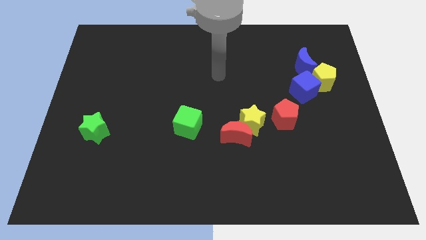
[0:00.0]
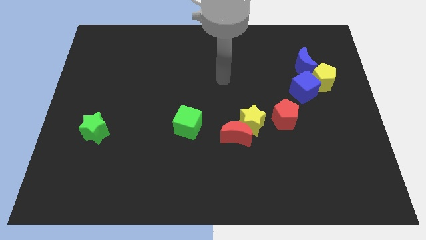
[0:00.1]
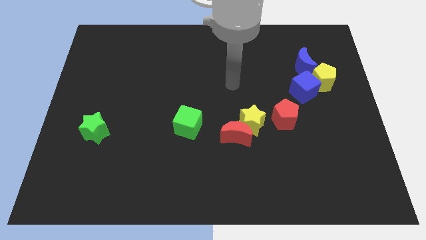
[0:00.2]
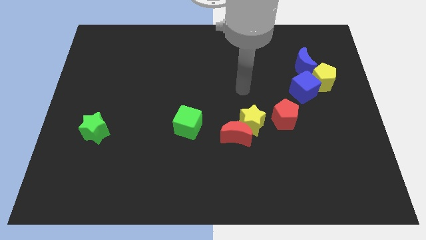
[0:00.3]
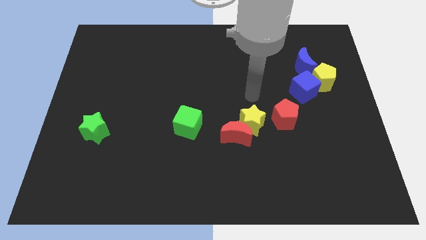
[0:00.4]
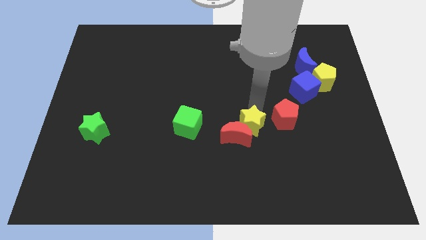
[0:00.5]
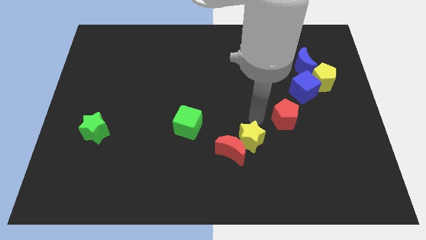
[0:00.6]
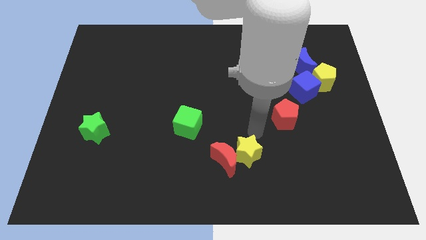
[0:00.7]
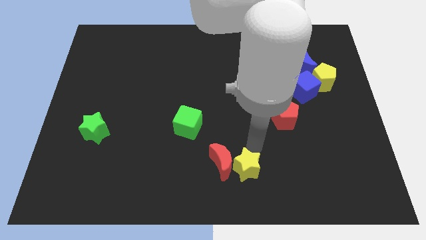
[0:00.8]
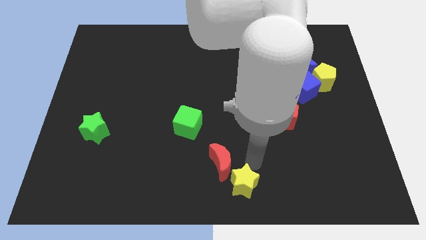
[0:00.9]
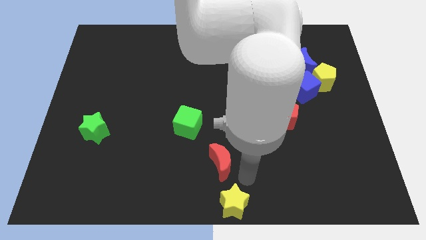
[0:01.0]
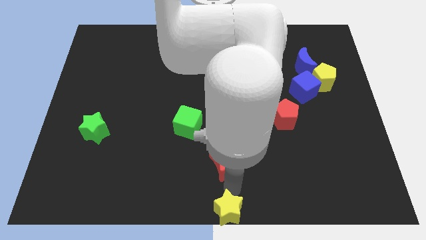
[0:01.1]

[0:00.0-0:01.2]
move the red moon away from the yellow star

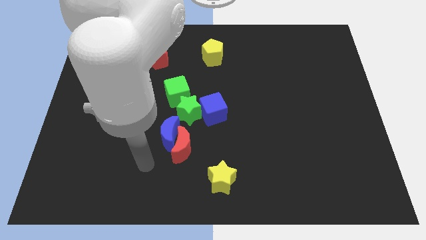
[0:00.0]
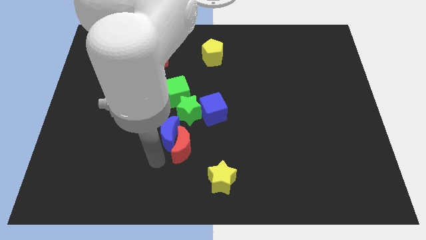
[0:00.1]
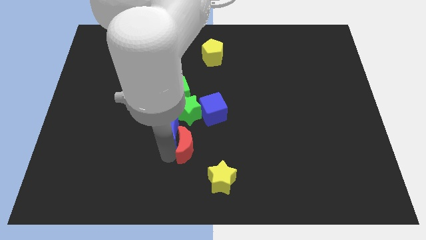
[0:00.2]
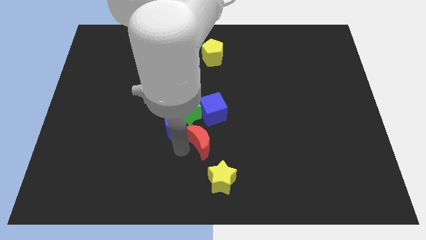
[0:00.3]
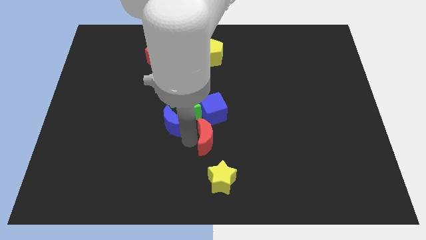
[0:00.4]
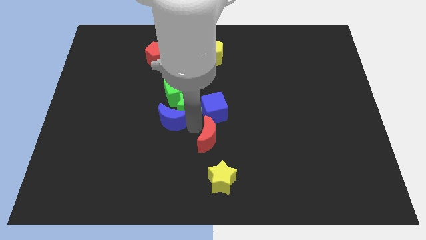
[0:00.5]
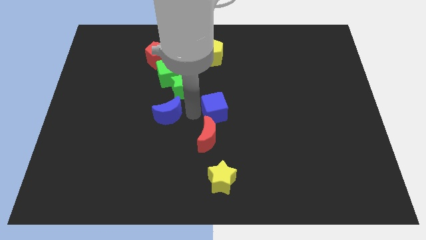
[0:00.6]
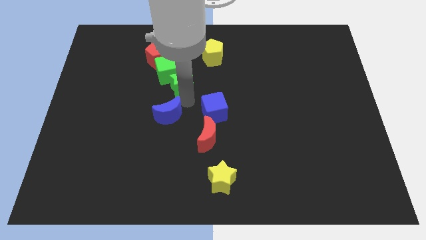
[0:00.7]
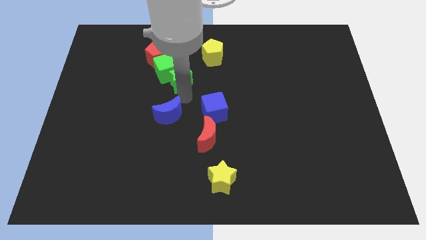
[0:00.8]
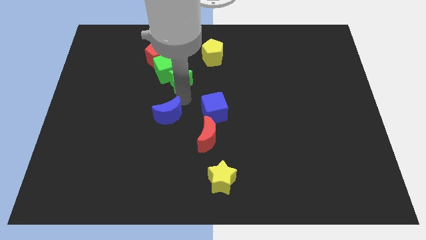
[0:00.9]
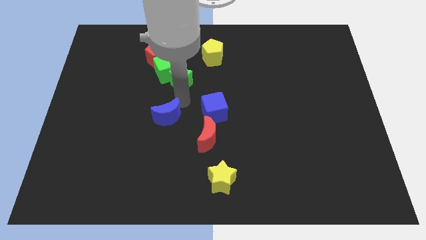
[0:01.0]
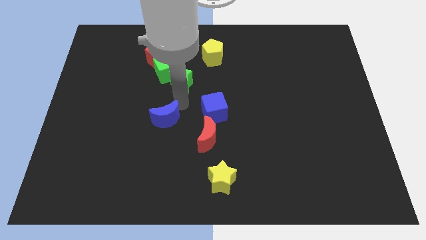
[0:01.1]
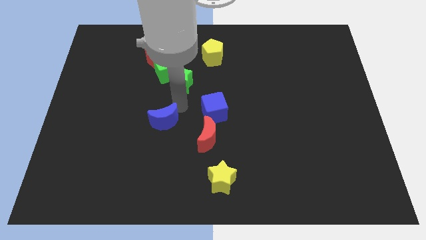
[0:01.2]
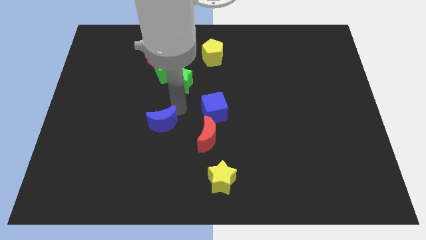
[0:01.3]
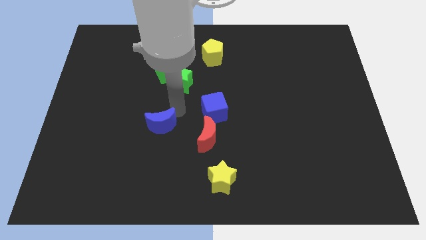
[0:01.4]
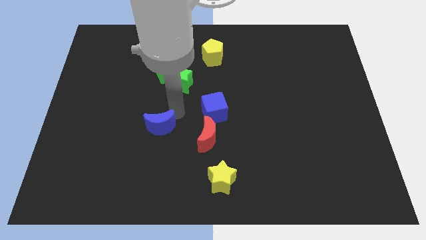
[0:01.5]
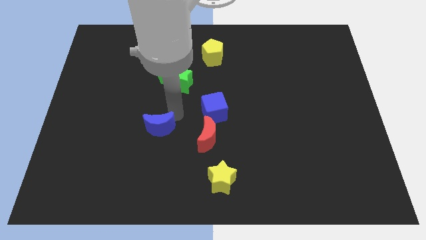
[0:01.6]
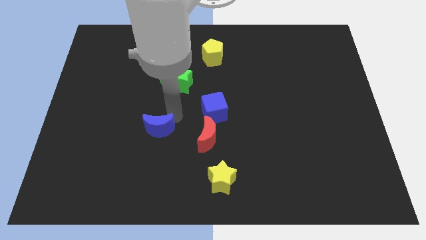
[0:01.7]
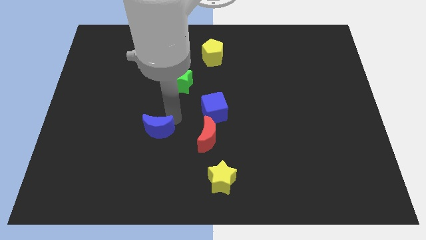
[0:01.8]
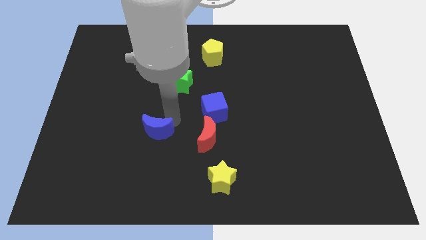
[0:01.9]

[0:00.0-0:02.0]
move the blue moon away from the red moon and green star

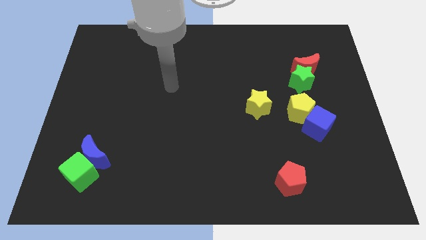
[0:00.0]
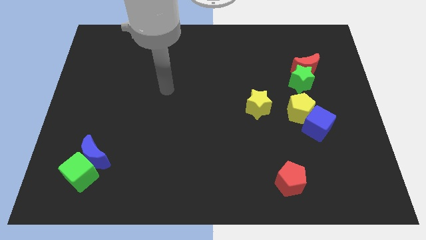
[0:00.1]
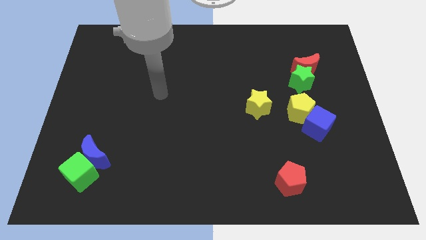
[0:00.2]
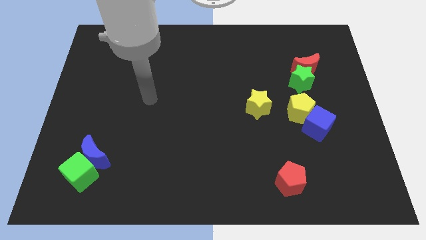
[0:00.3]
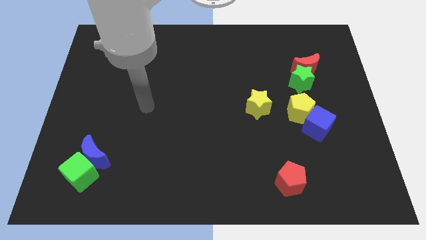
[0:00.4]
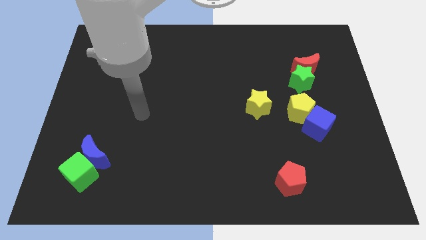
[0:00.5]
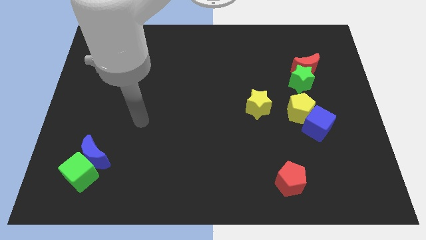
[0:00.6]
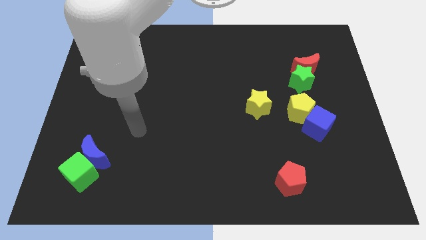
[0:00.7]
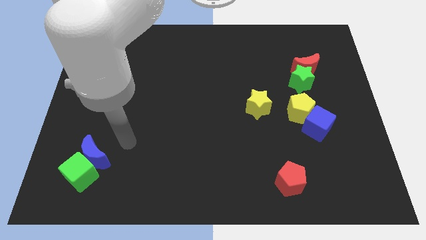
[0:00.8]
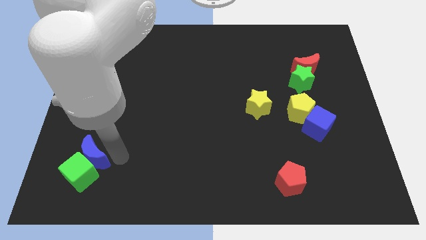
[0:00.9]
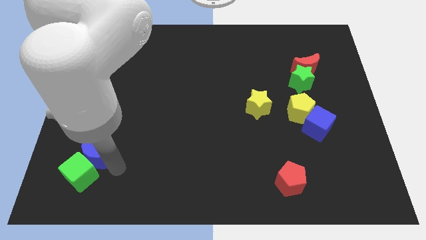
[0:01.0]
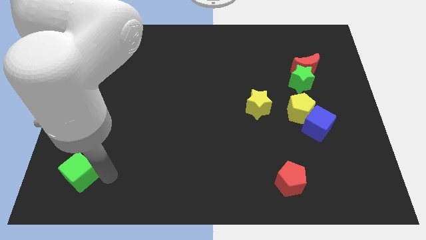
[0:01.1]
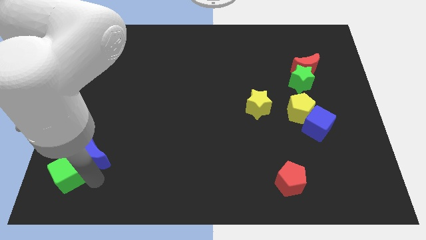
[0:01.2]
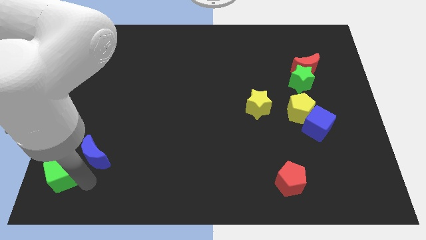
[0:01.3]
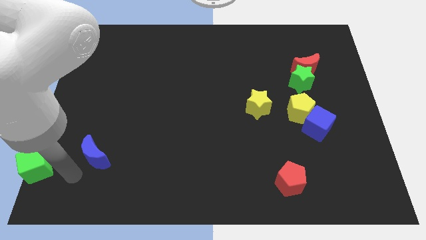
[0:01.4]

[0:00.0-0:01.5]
separate the blue moon from the green cube

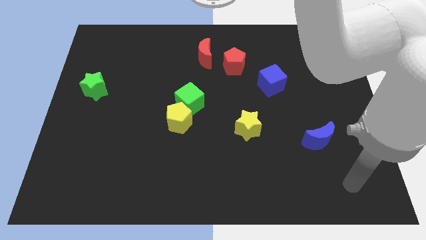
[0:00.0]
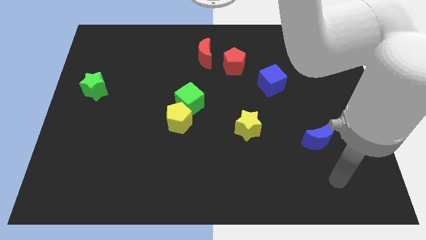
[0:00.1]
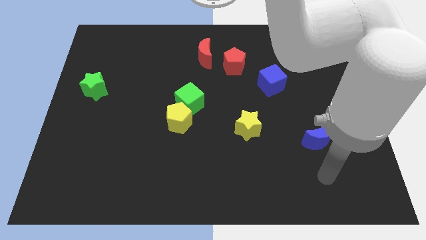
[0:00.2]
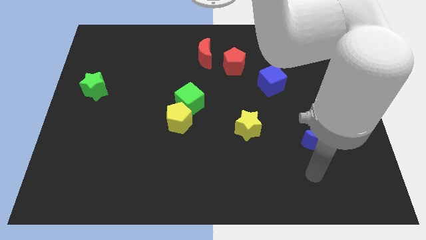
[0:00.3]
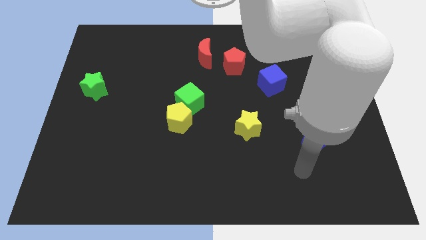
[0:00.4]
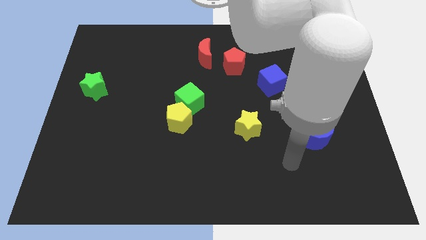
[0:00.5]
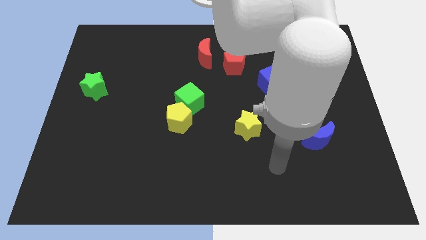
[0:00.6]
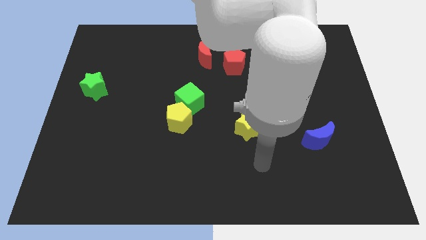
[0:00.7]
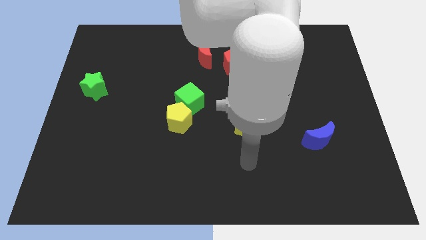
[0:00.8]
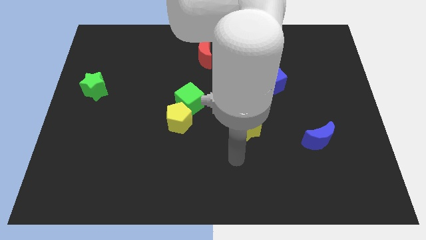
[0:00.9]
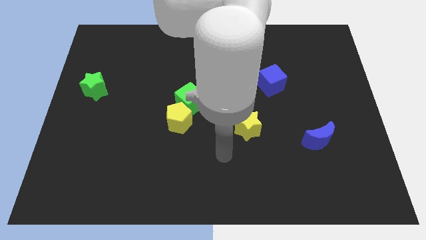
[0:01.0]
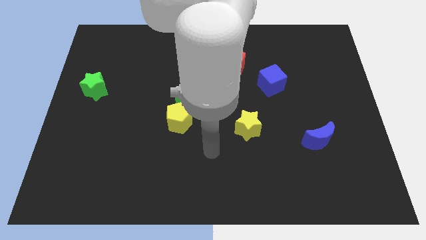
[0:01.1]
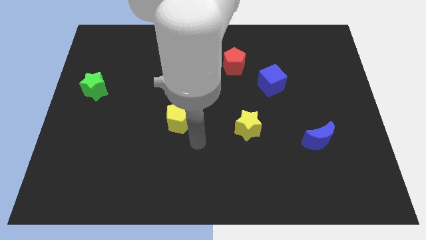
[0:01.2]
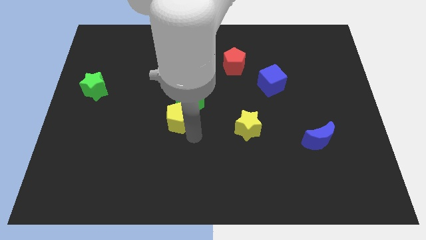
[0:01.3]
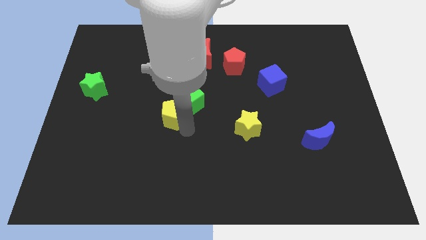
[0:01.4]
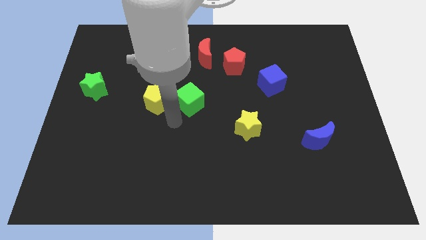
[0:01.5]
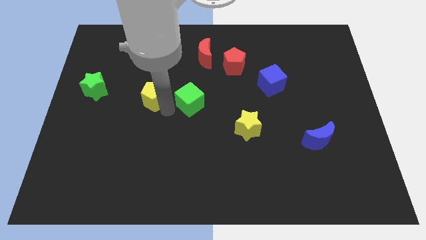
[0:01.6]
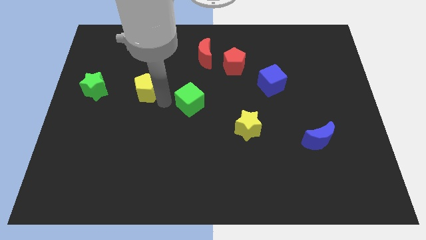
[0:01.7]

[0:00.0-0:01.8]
separate the green cube from the yellow pentagon

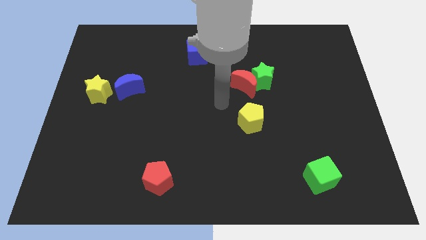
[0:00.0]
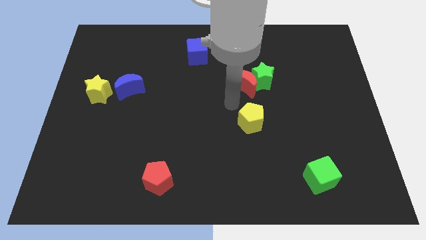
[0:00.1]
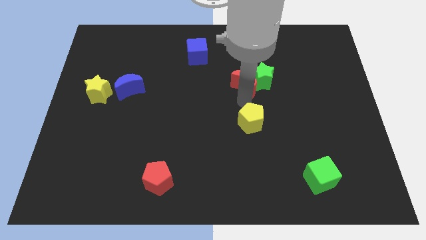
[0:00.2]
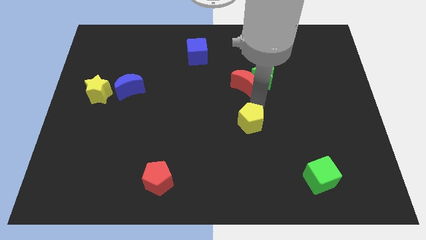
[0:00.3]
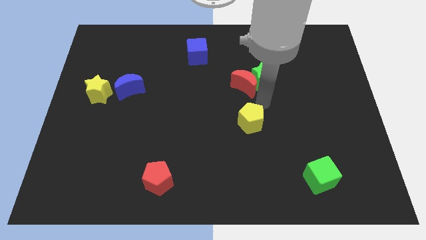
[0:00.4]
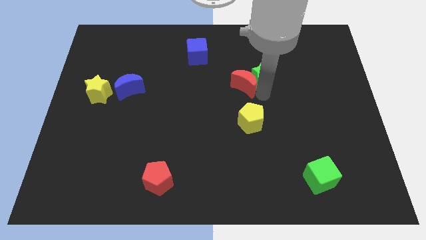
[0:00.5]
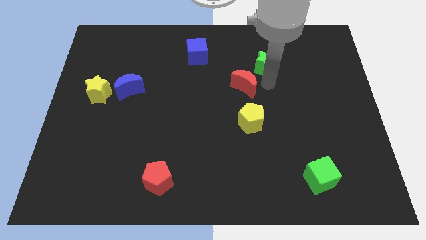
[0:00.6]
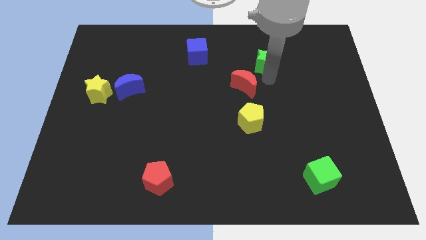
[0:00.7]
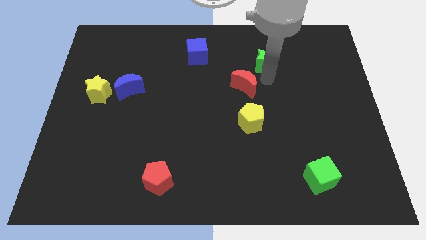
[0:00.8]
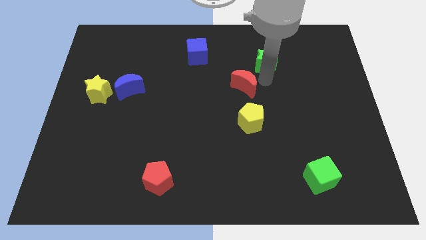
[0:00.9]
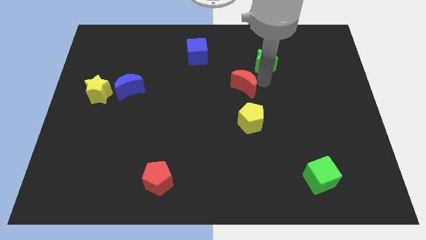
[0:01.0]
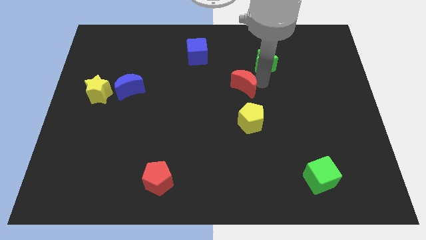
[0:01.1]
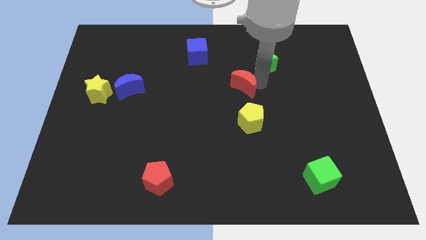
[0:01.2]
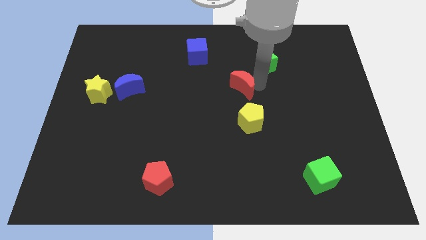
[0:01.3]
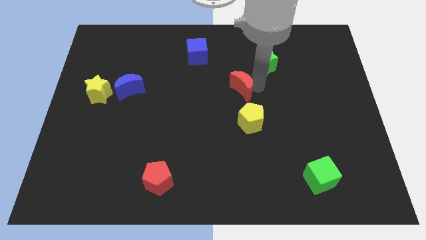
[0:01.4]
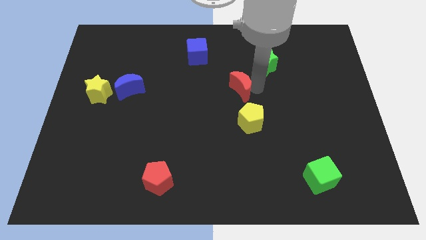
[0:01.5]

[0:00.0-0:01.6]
pull the red moon apart from the green star

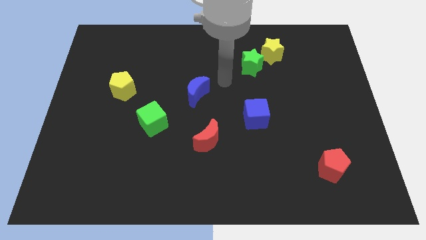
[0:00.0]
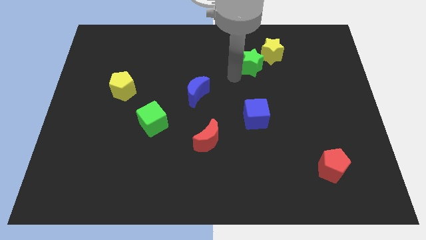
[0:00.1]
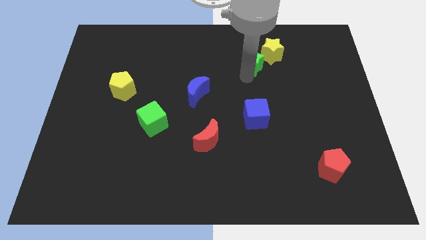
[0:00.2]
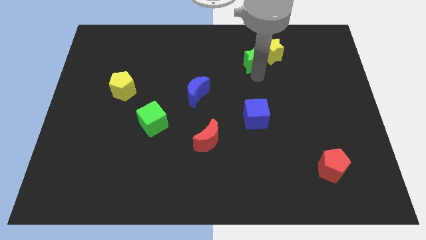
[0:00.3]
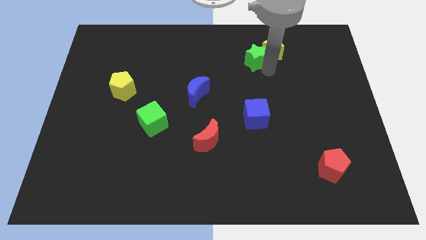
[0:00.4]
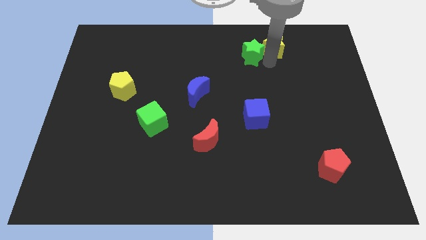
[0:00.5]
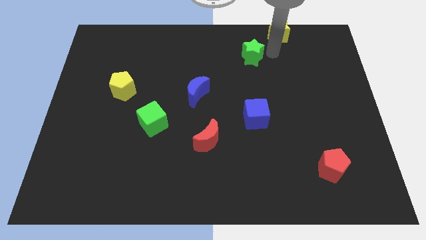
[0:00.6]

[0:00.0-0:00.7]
move the green star away from the yellow star

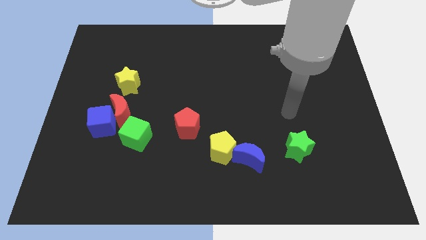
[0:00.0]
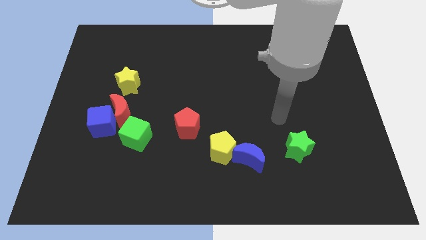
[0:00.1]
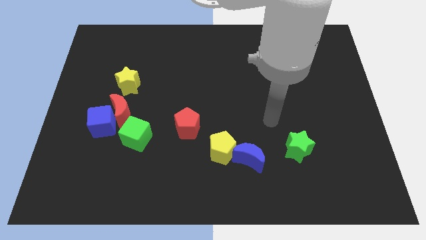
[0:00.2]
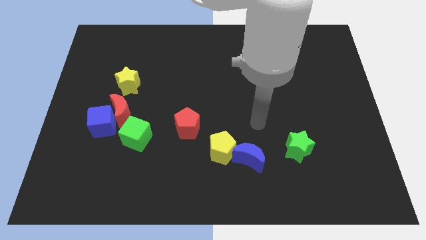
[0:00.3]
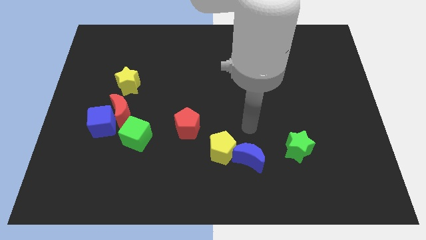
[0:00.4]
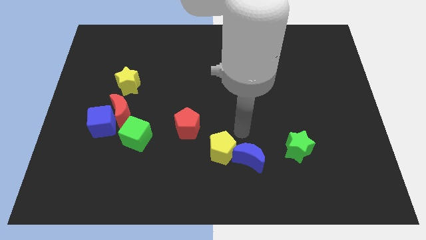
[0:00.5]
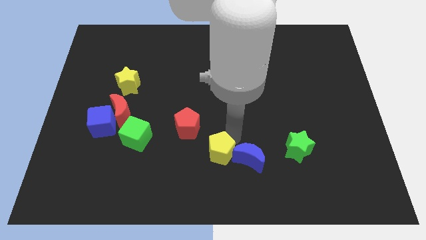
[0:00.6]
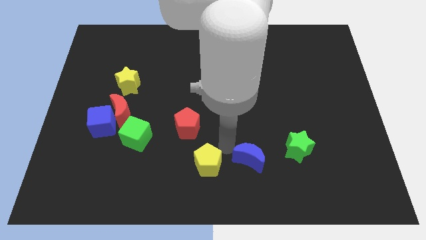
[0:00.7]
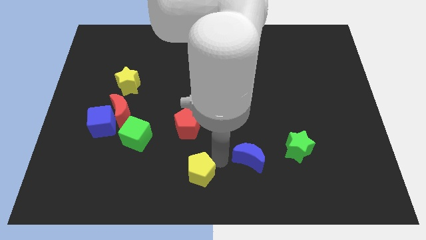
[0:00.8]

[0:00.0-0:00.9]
move the blue moon away from the yellow pentagon
